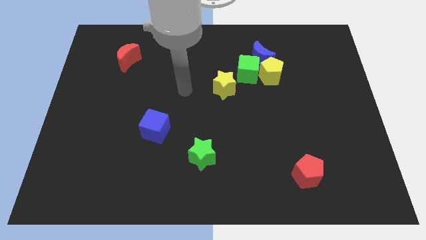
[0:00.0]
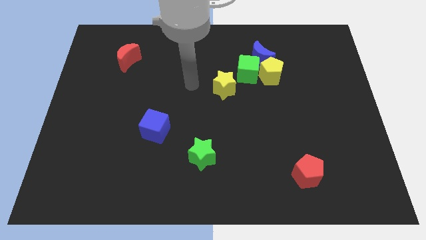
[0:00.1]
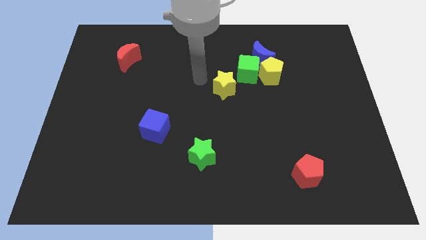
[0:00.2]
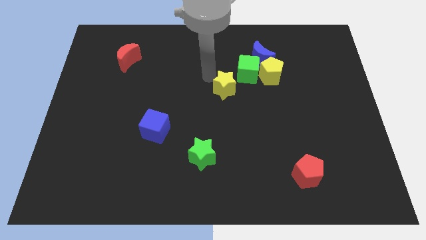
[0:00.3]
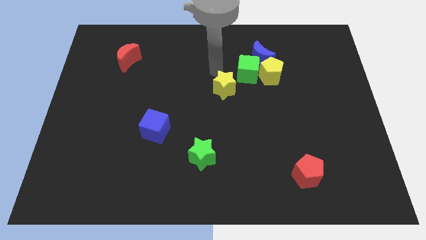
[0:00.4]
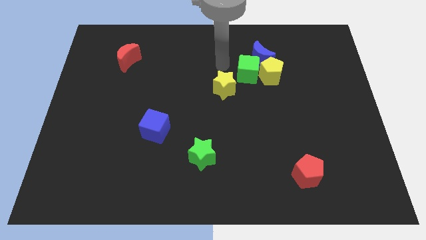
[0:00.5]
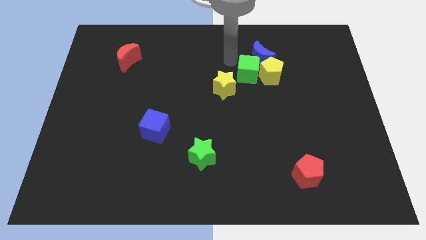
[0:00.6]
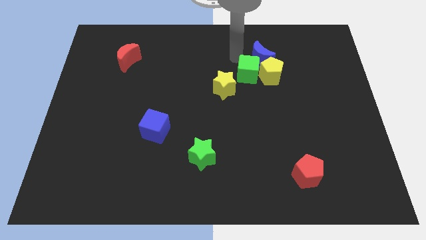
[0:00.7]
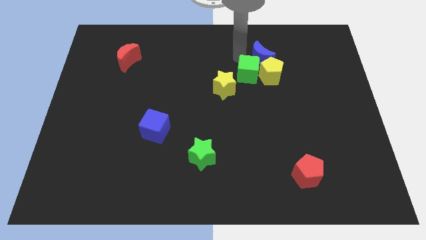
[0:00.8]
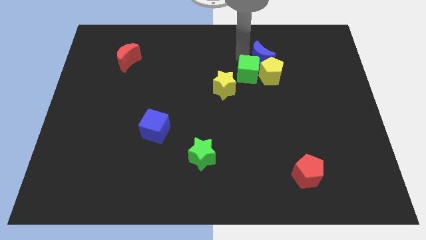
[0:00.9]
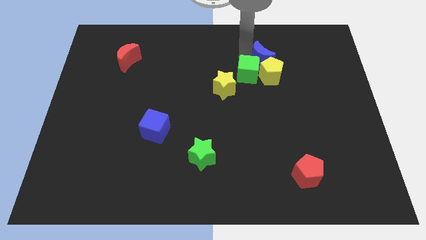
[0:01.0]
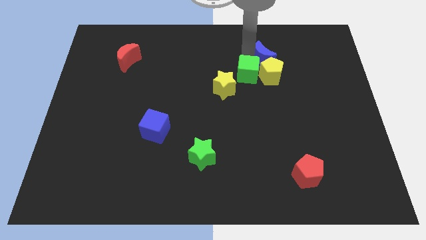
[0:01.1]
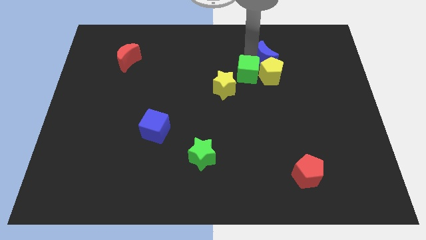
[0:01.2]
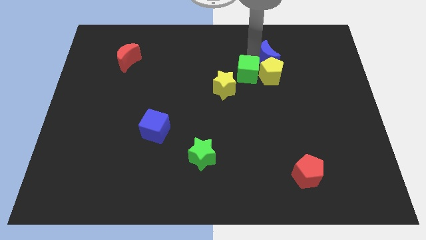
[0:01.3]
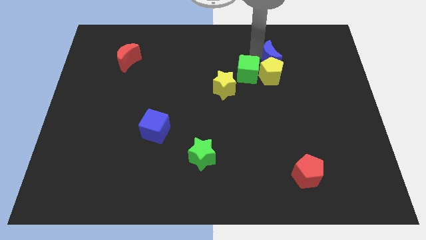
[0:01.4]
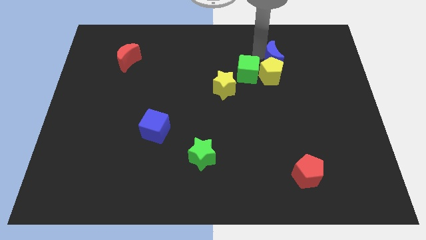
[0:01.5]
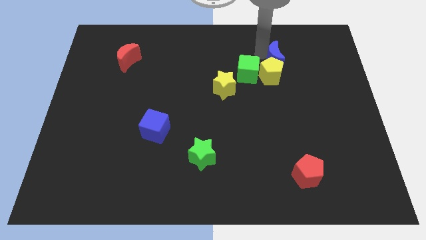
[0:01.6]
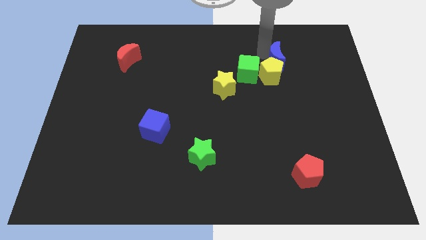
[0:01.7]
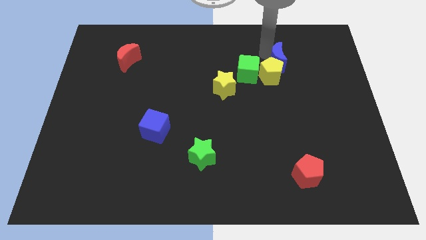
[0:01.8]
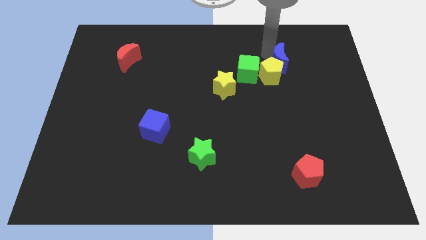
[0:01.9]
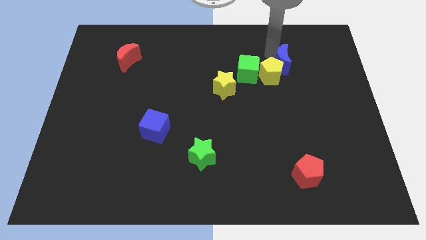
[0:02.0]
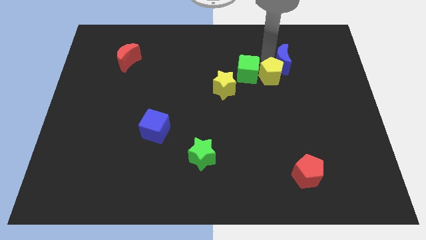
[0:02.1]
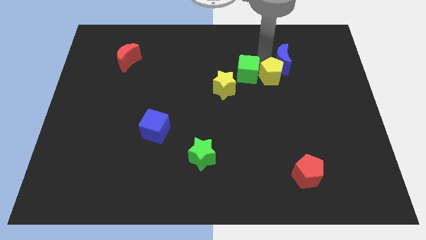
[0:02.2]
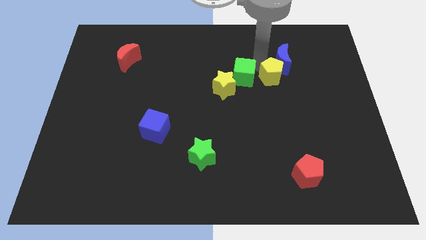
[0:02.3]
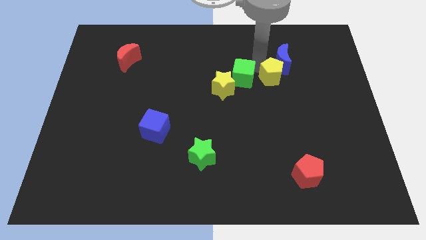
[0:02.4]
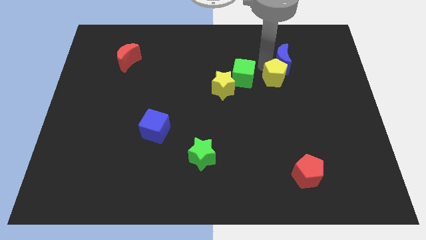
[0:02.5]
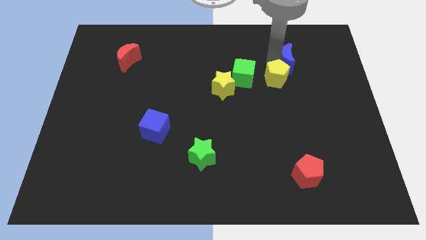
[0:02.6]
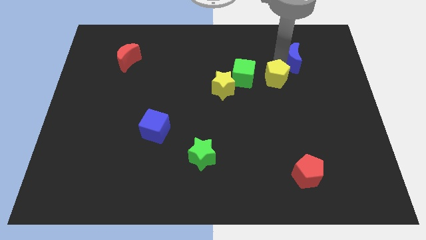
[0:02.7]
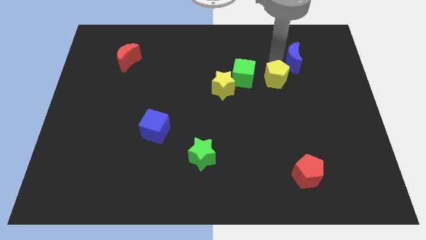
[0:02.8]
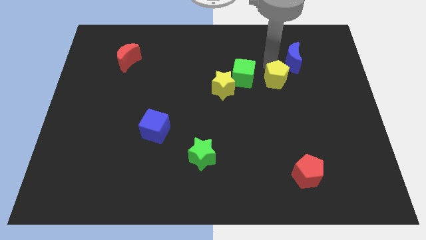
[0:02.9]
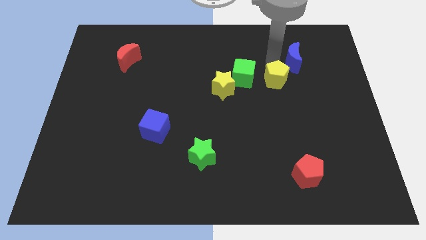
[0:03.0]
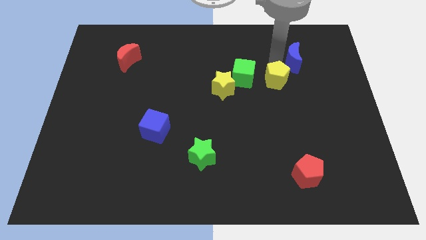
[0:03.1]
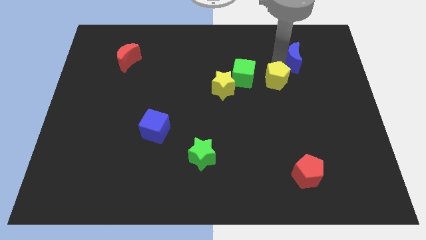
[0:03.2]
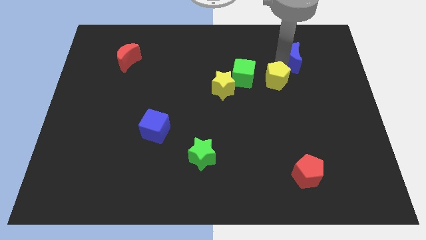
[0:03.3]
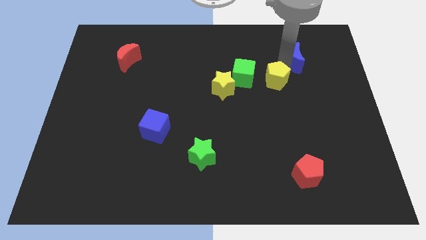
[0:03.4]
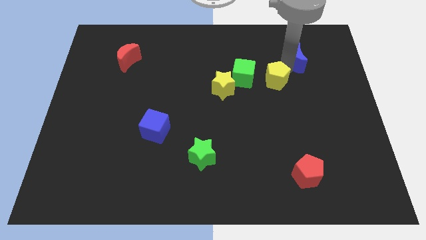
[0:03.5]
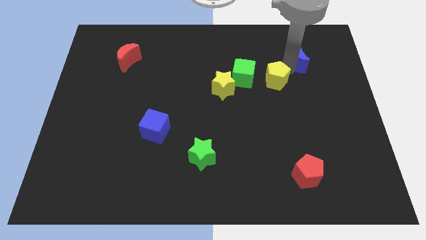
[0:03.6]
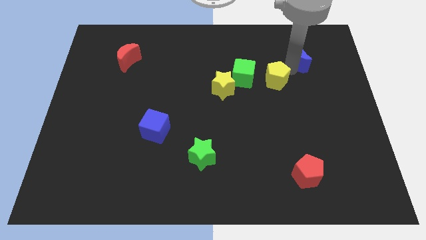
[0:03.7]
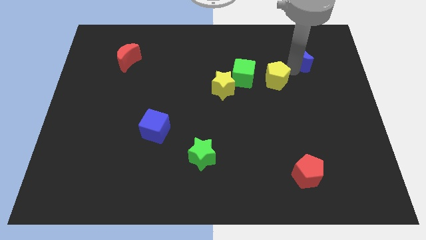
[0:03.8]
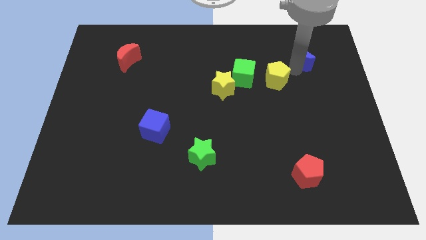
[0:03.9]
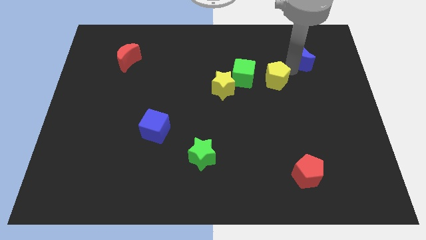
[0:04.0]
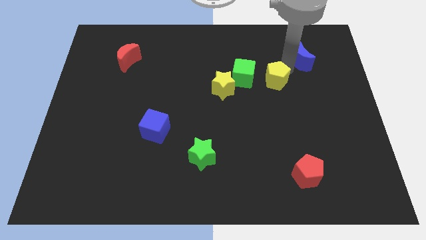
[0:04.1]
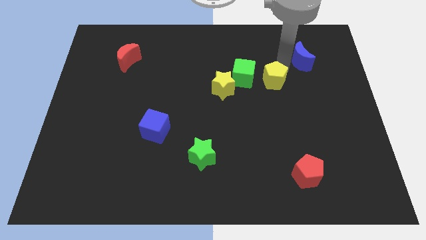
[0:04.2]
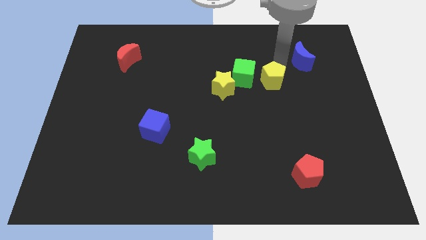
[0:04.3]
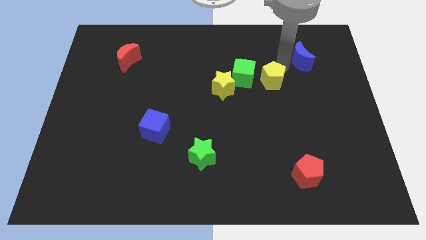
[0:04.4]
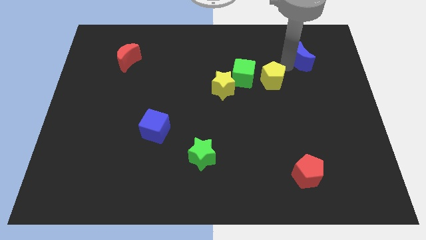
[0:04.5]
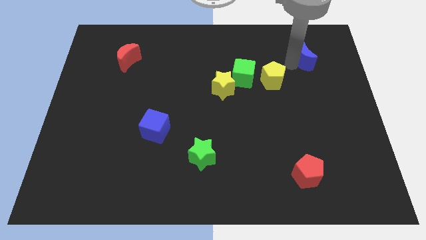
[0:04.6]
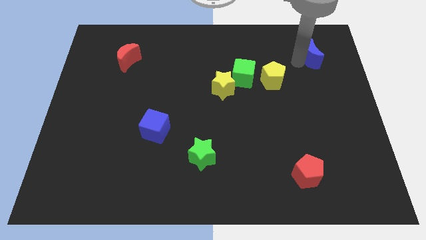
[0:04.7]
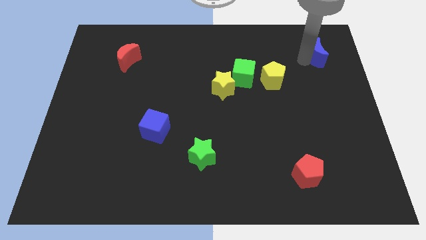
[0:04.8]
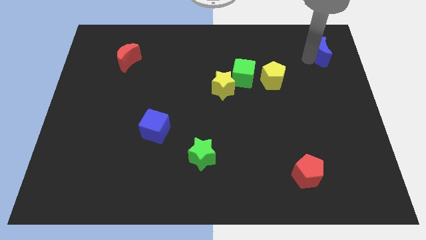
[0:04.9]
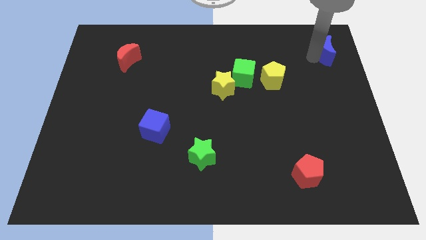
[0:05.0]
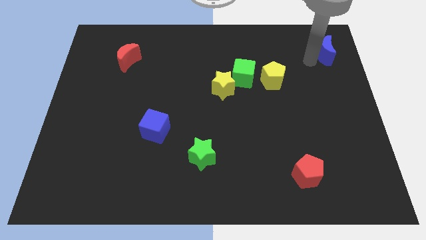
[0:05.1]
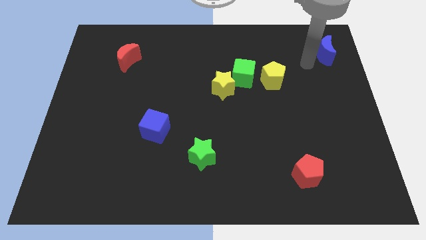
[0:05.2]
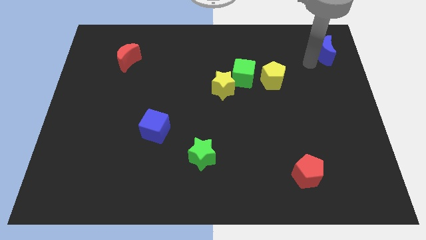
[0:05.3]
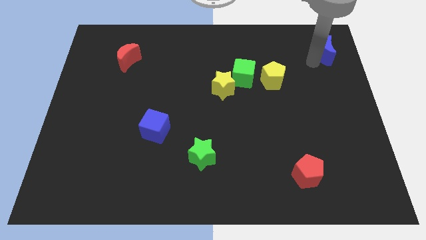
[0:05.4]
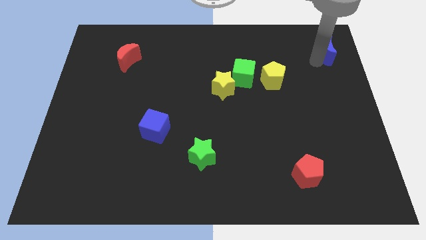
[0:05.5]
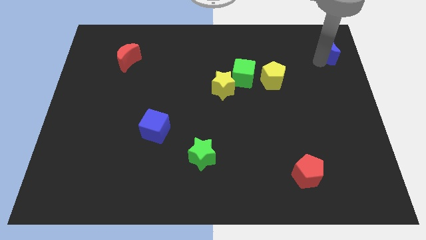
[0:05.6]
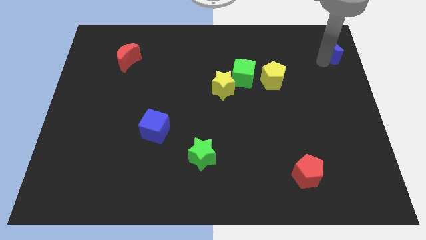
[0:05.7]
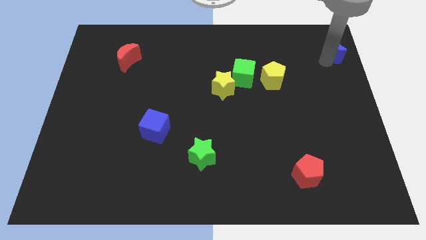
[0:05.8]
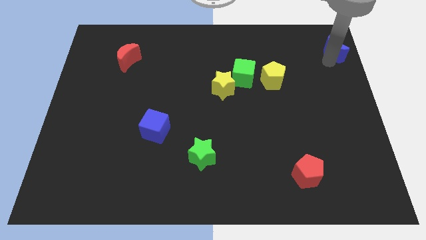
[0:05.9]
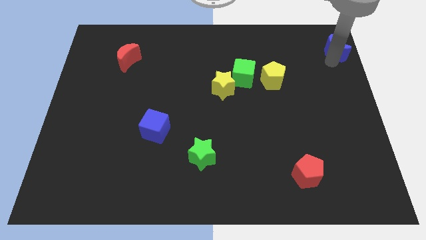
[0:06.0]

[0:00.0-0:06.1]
put the blue moon to the top right corner

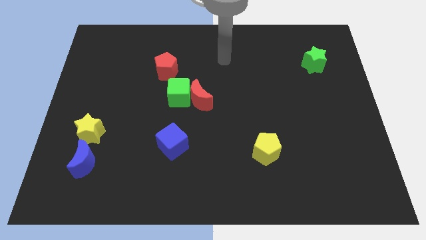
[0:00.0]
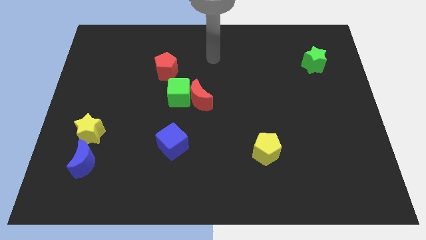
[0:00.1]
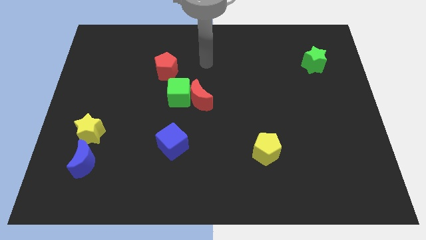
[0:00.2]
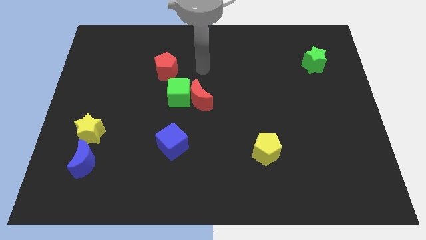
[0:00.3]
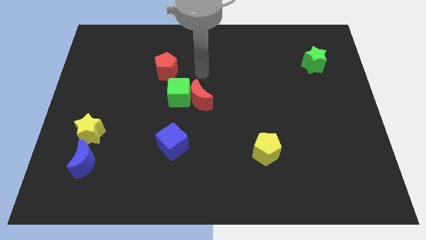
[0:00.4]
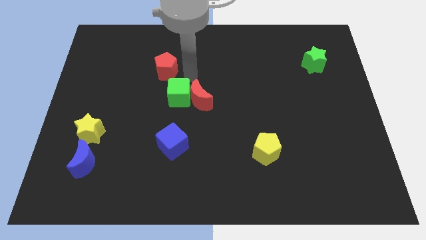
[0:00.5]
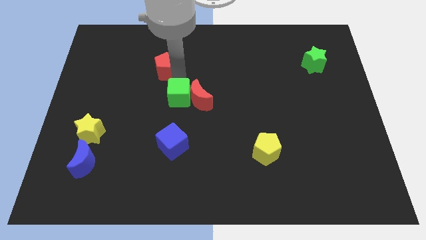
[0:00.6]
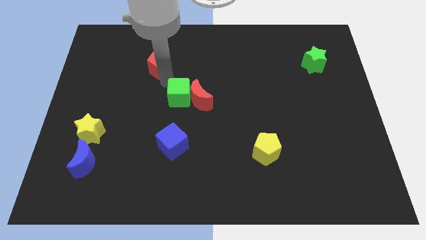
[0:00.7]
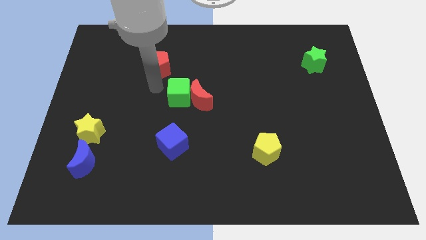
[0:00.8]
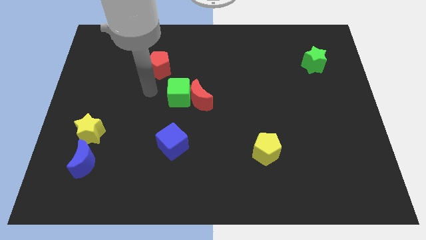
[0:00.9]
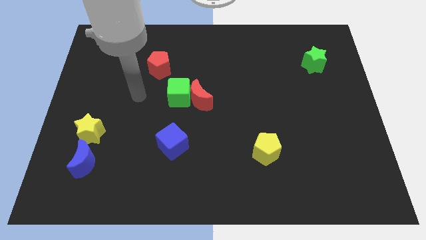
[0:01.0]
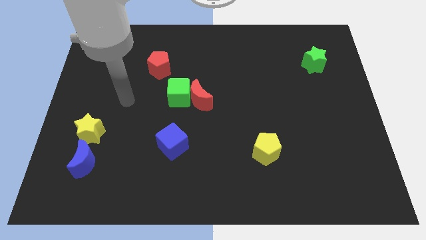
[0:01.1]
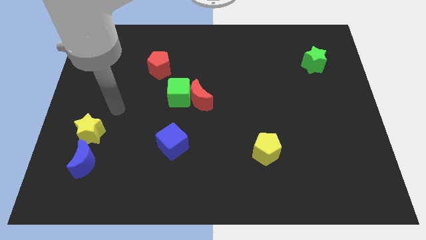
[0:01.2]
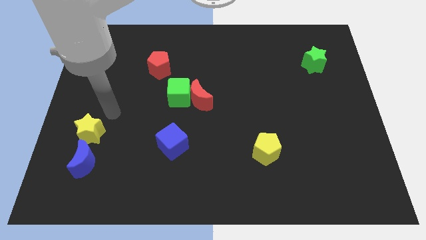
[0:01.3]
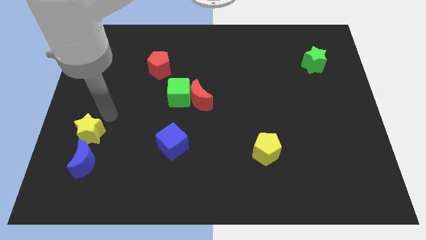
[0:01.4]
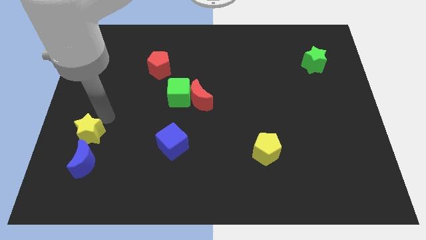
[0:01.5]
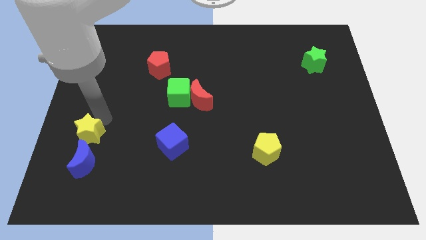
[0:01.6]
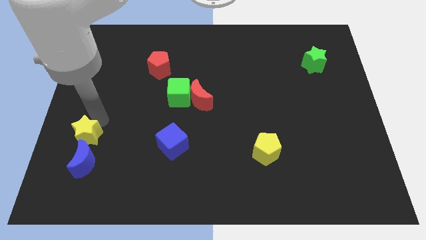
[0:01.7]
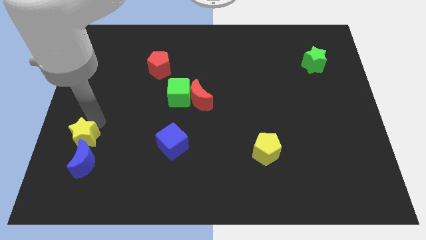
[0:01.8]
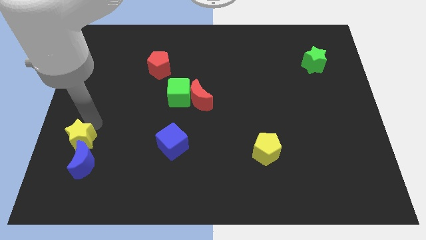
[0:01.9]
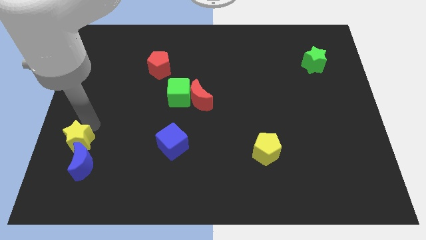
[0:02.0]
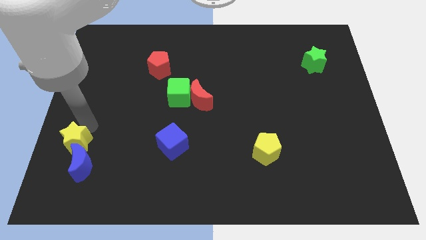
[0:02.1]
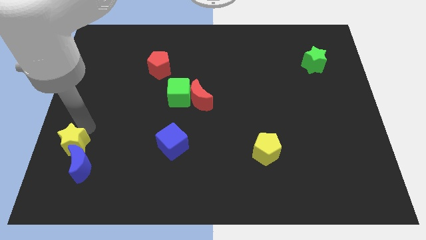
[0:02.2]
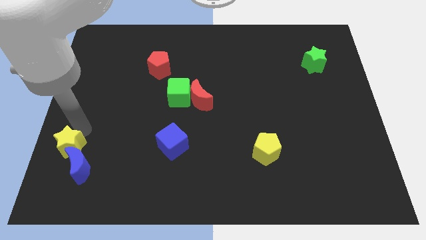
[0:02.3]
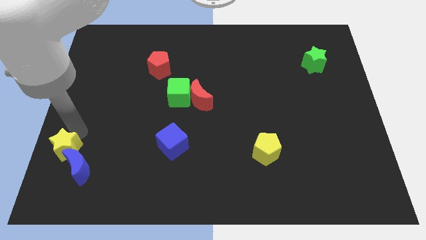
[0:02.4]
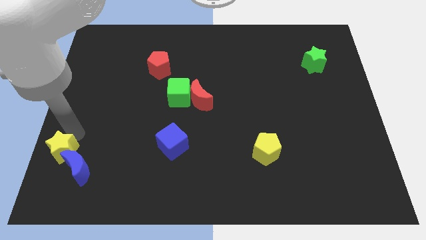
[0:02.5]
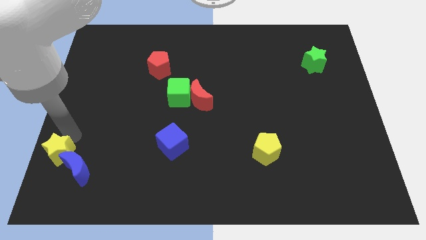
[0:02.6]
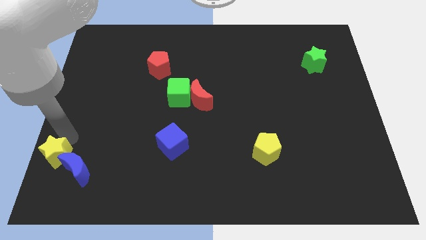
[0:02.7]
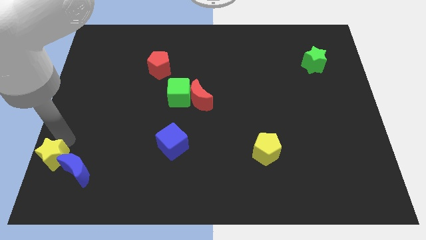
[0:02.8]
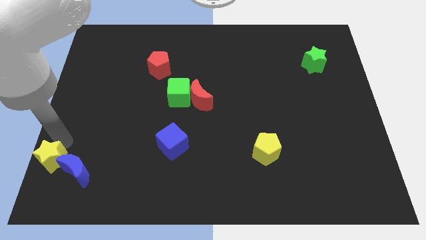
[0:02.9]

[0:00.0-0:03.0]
move the yellow star to the bottom left corner
